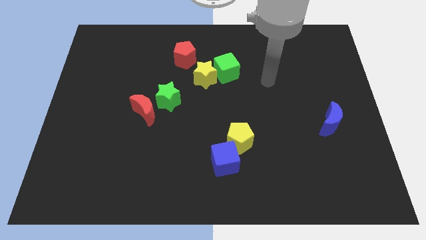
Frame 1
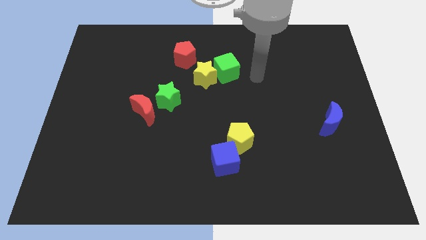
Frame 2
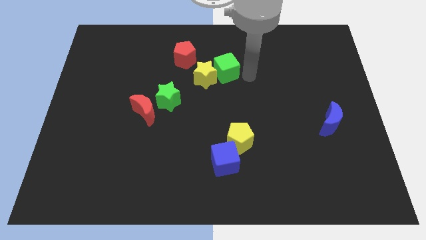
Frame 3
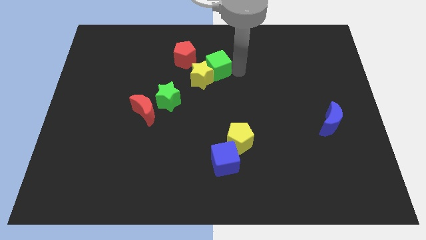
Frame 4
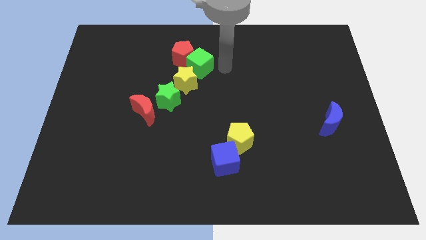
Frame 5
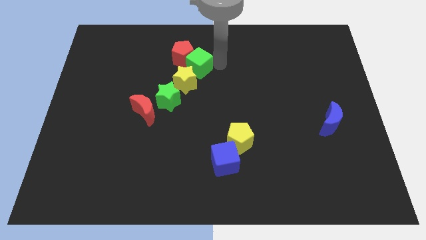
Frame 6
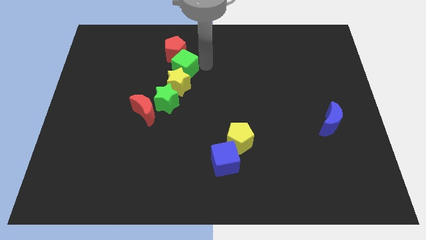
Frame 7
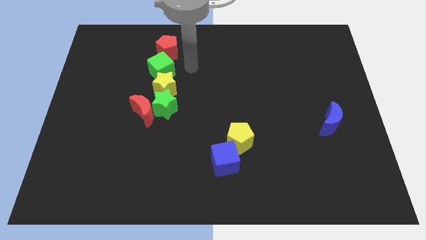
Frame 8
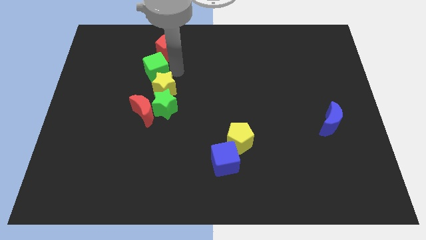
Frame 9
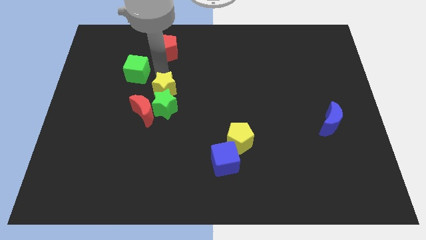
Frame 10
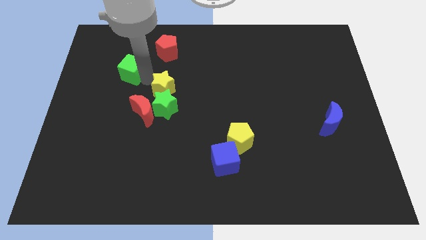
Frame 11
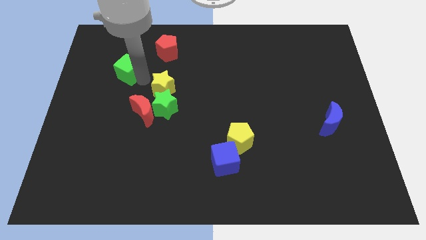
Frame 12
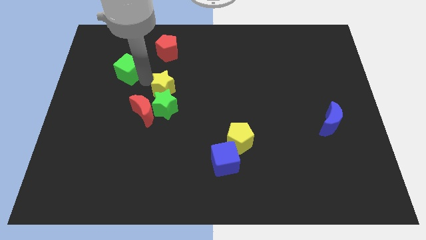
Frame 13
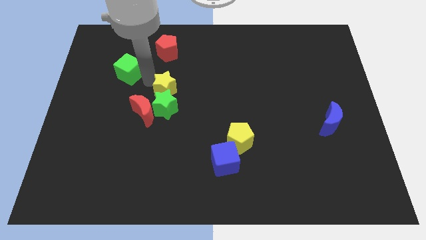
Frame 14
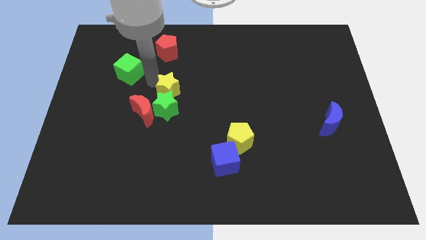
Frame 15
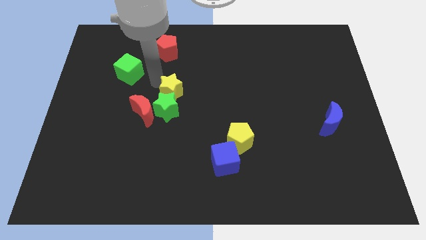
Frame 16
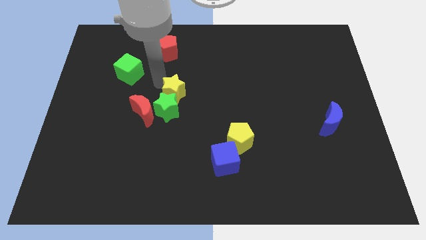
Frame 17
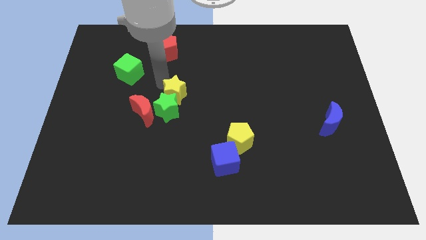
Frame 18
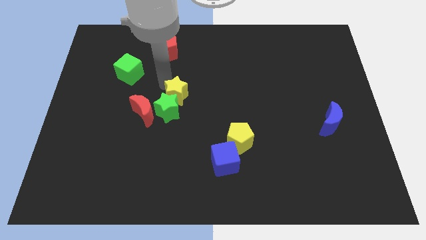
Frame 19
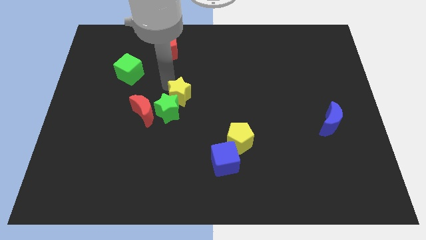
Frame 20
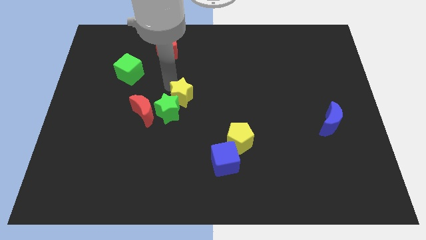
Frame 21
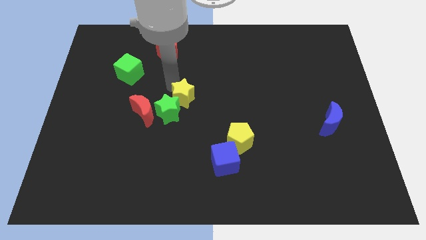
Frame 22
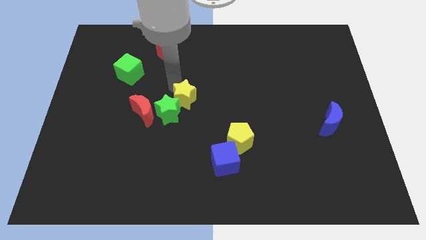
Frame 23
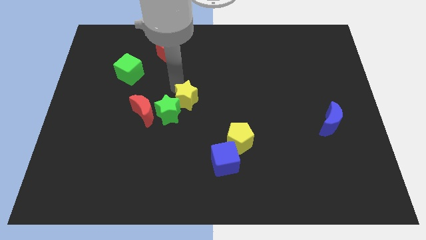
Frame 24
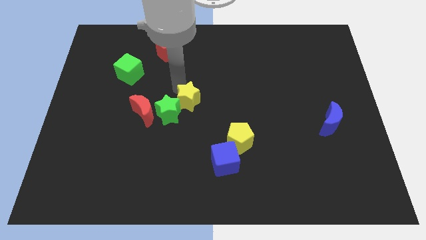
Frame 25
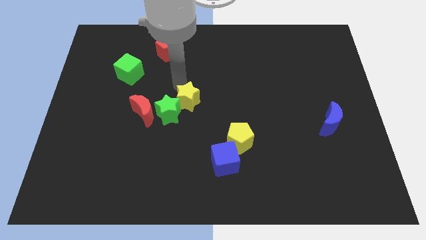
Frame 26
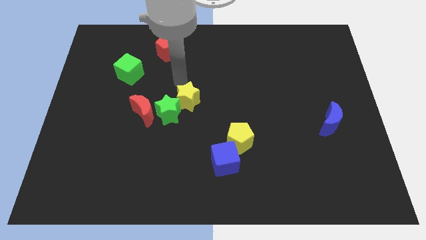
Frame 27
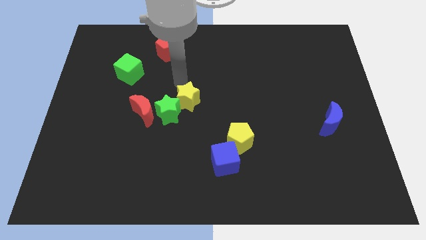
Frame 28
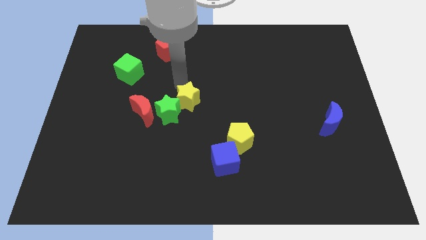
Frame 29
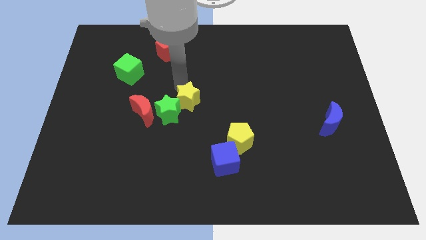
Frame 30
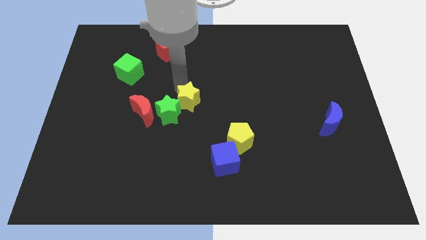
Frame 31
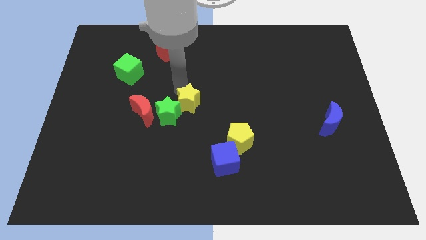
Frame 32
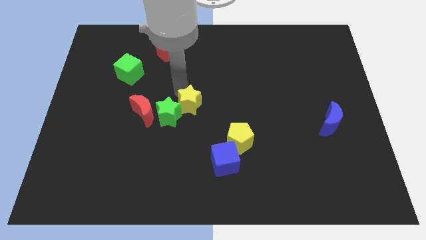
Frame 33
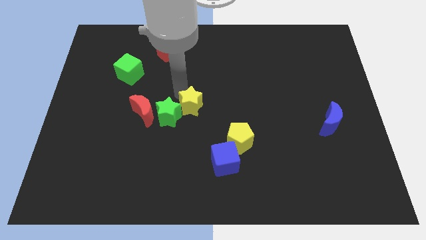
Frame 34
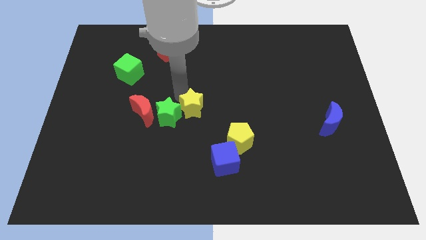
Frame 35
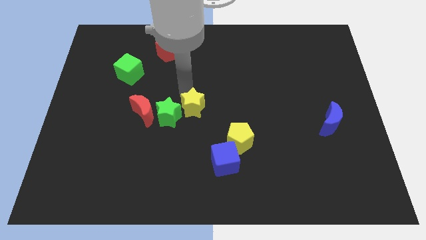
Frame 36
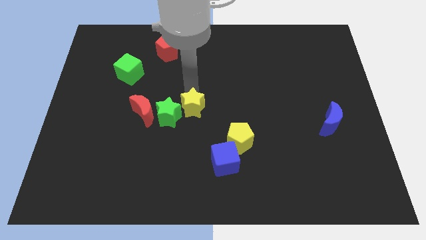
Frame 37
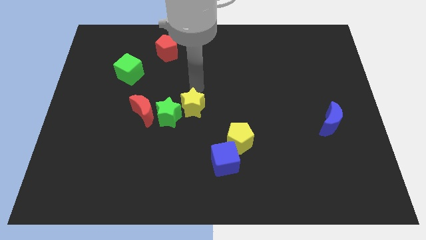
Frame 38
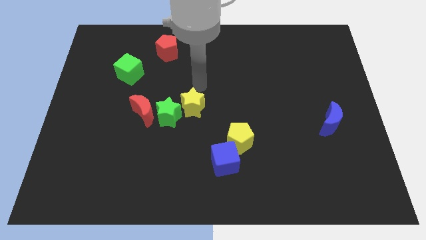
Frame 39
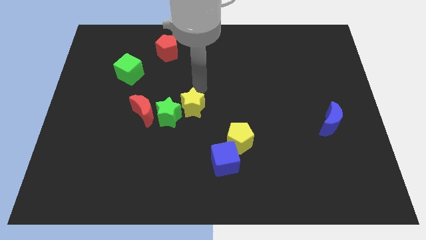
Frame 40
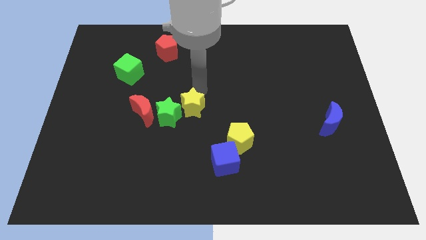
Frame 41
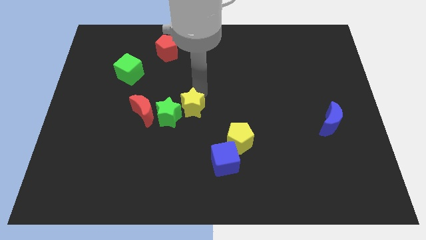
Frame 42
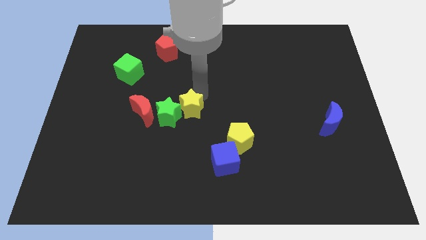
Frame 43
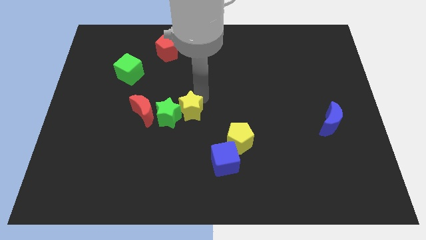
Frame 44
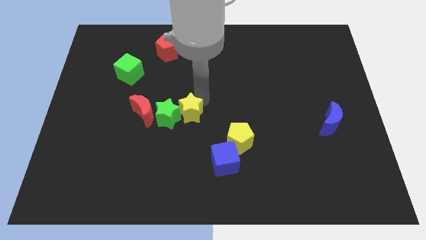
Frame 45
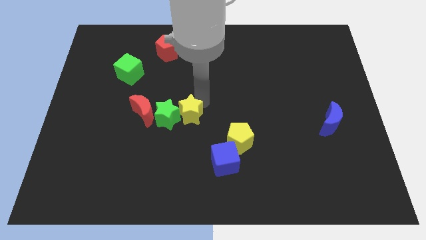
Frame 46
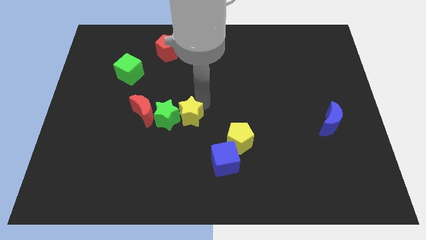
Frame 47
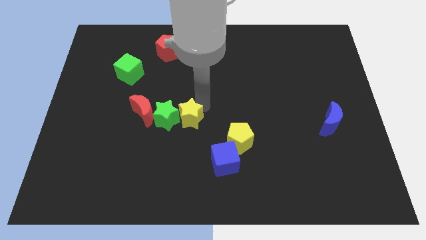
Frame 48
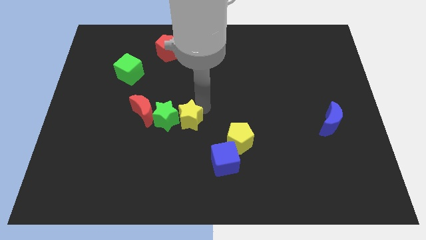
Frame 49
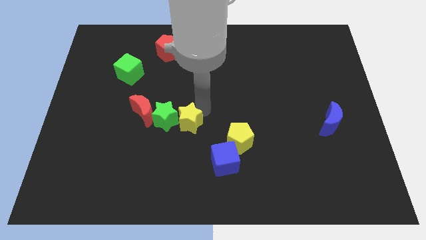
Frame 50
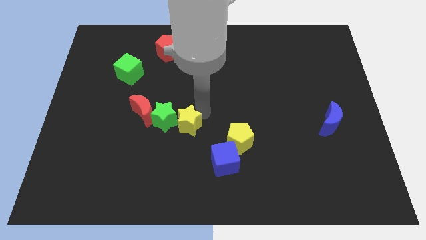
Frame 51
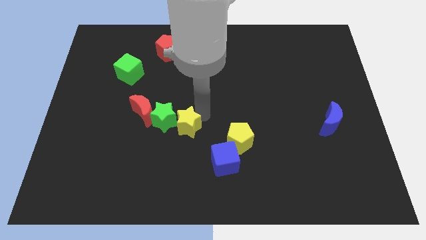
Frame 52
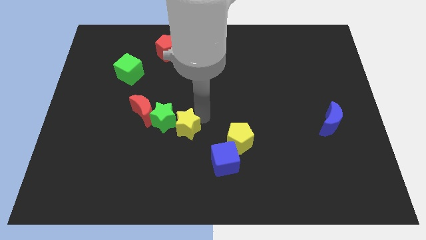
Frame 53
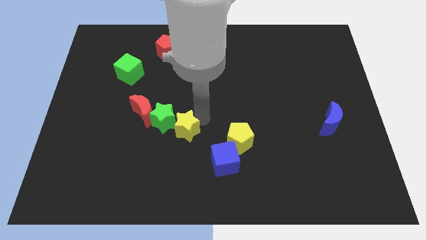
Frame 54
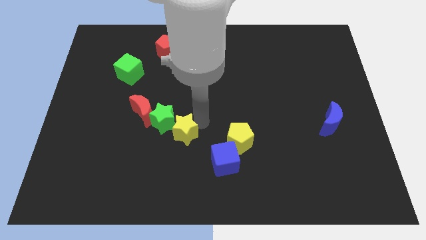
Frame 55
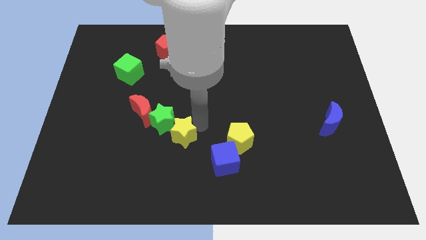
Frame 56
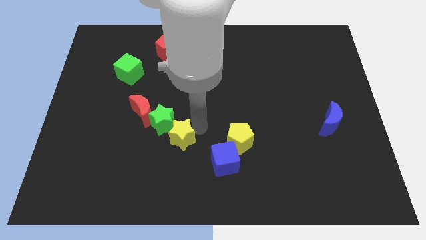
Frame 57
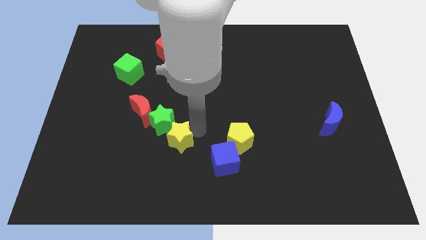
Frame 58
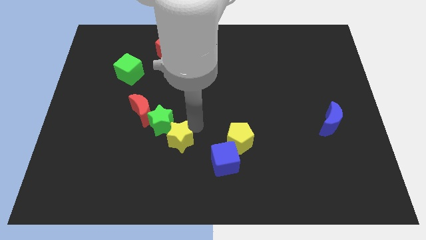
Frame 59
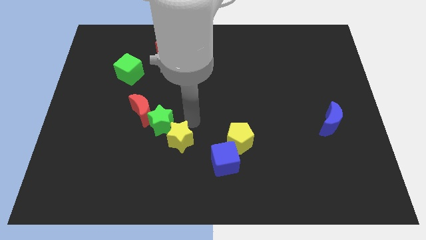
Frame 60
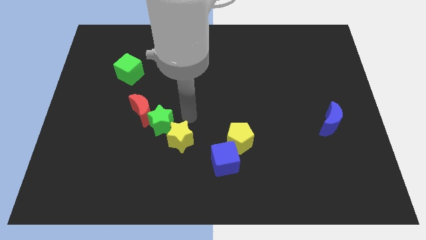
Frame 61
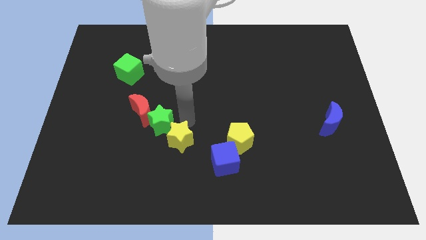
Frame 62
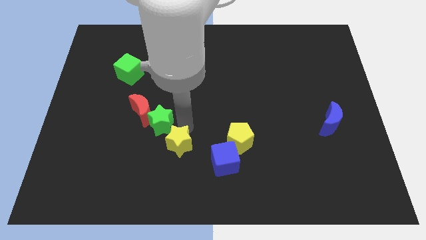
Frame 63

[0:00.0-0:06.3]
slide the yellow star to the left of the blue cube

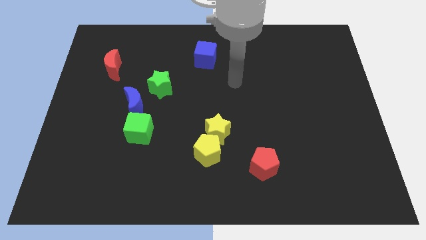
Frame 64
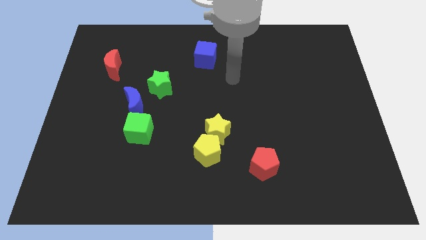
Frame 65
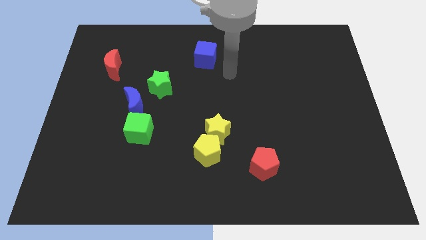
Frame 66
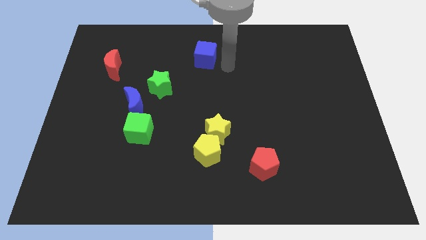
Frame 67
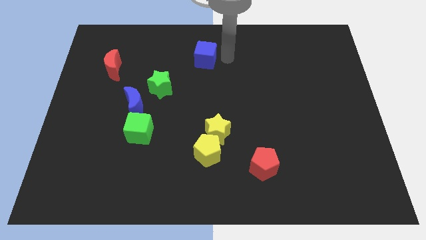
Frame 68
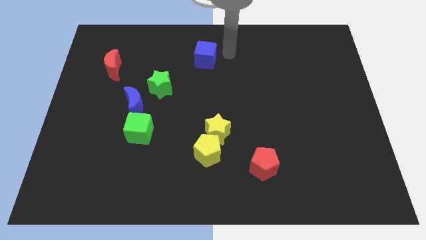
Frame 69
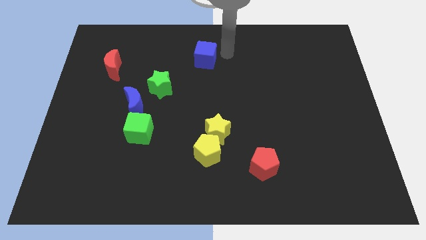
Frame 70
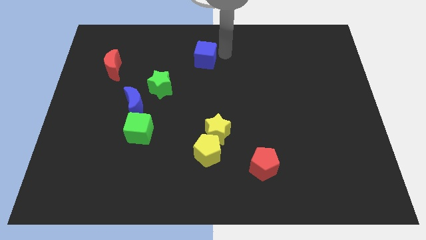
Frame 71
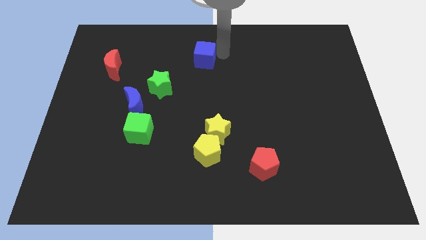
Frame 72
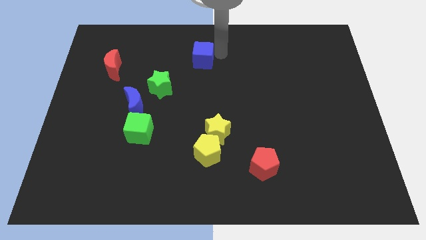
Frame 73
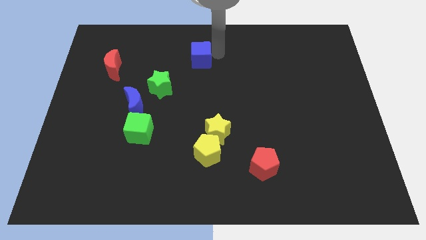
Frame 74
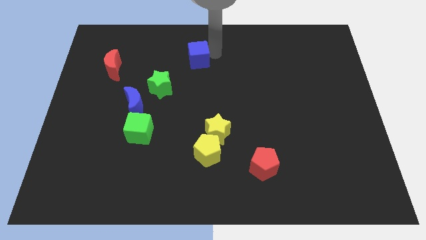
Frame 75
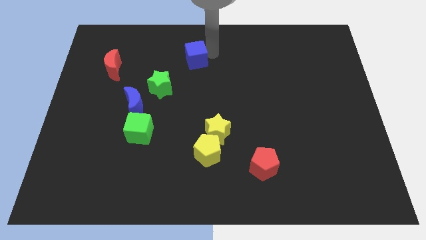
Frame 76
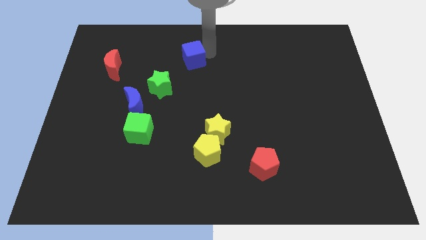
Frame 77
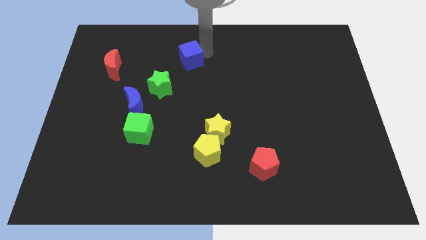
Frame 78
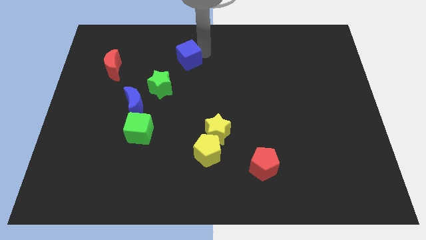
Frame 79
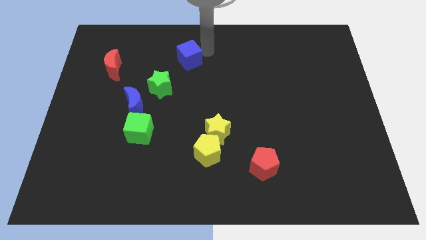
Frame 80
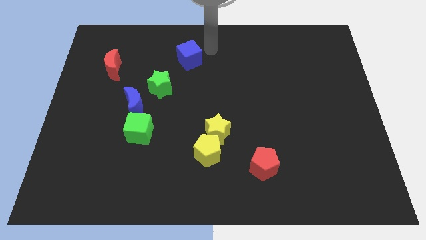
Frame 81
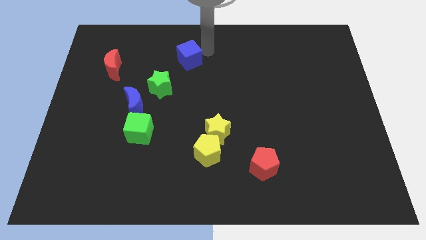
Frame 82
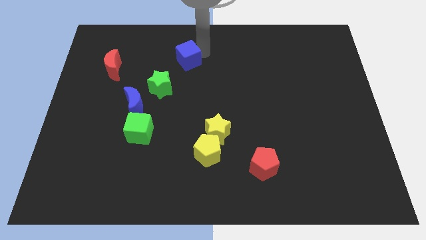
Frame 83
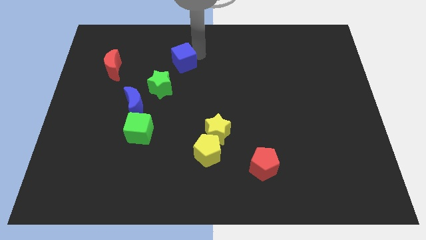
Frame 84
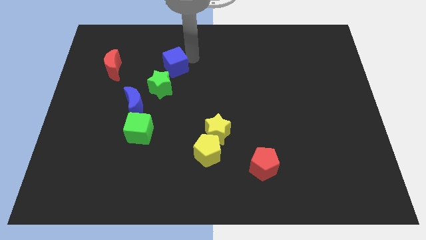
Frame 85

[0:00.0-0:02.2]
push the blue cube right of the red moon
